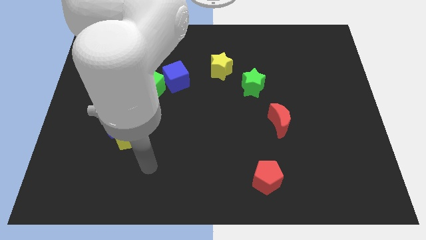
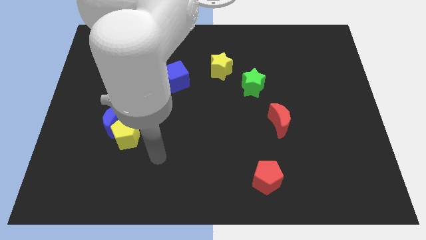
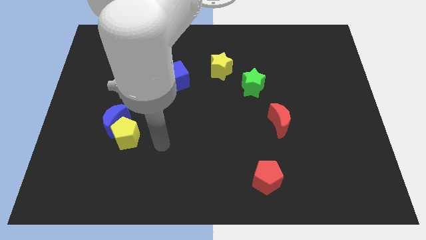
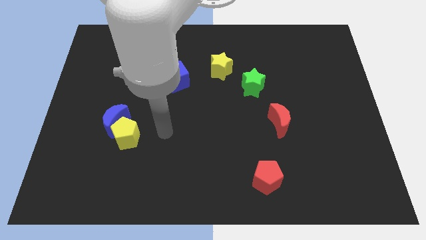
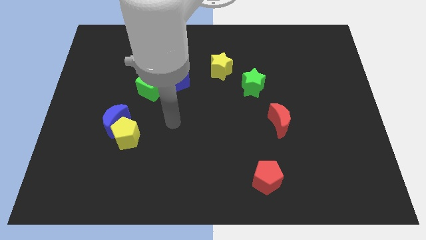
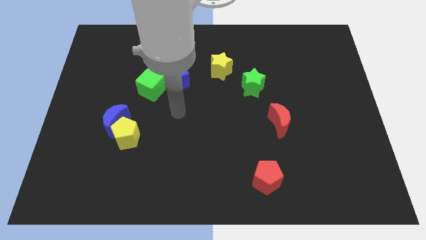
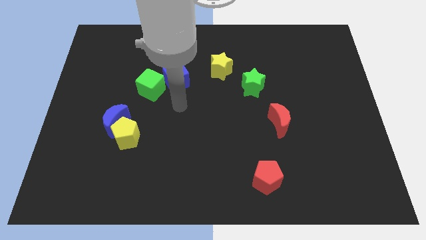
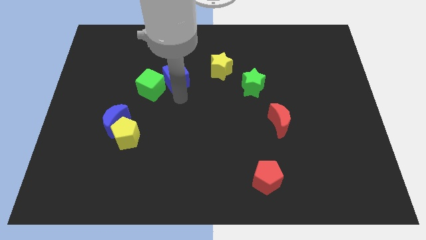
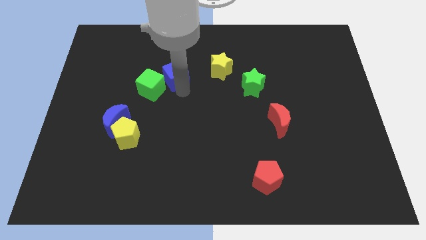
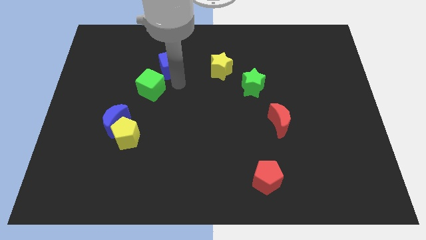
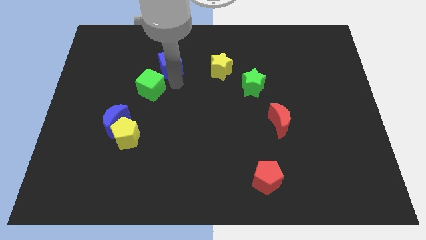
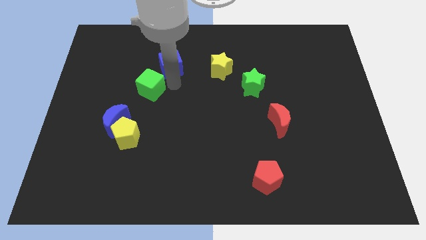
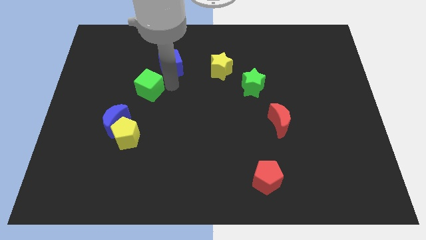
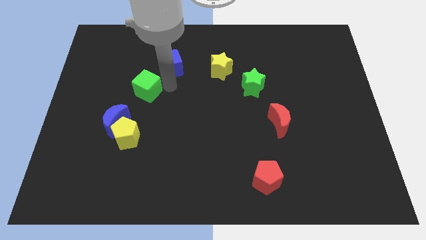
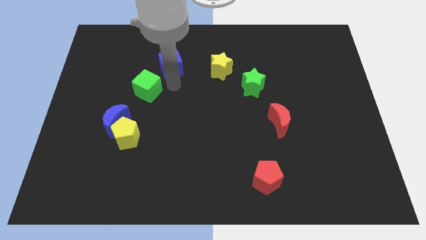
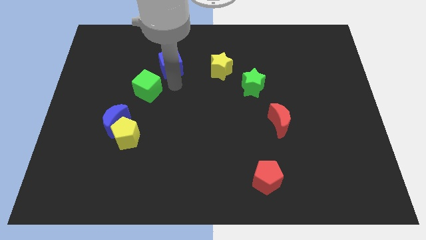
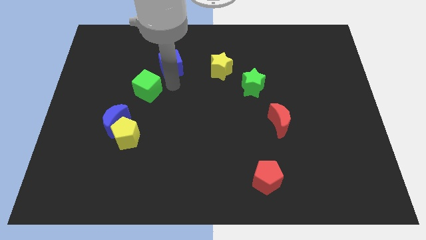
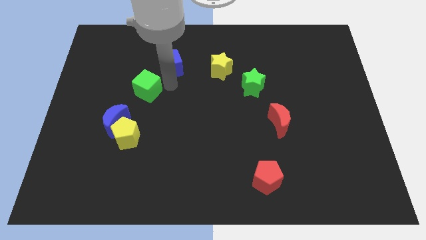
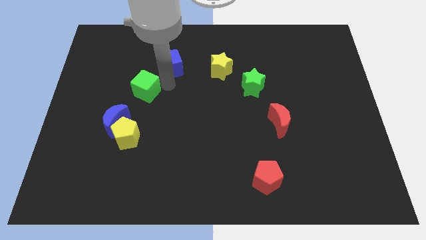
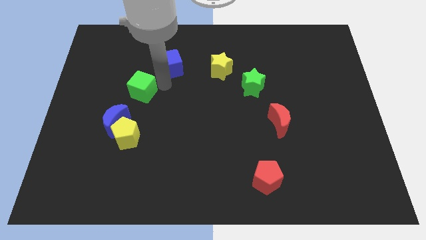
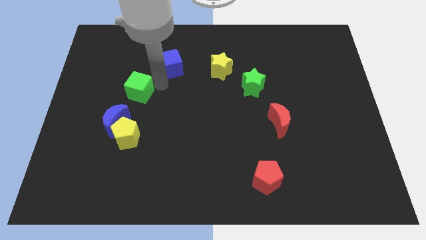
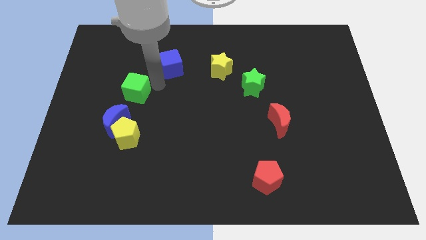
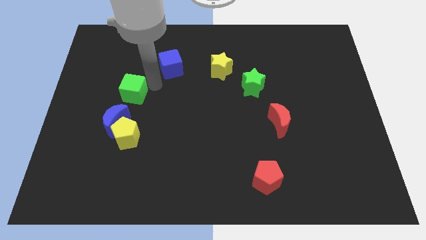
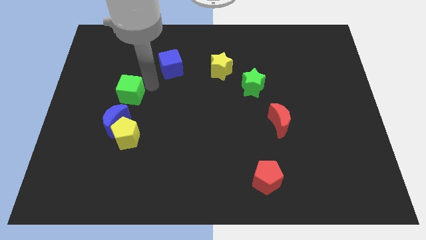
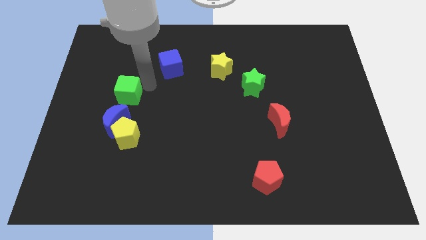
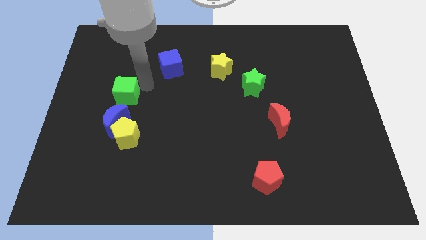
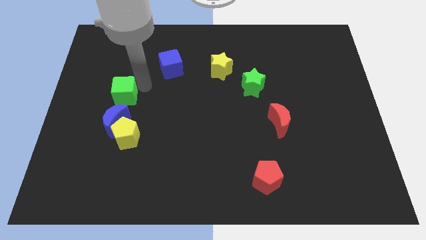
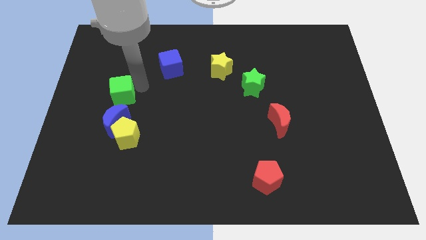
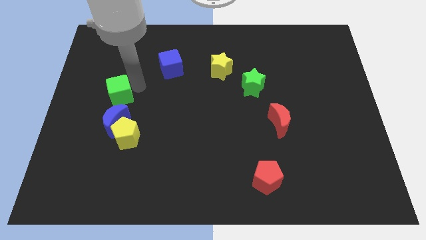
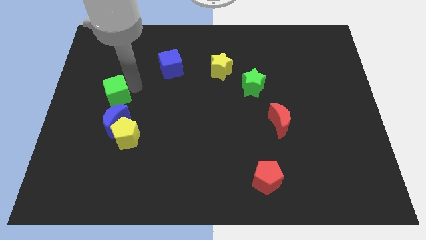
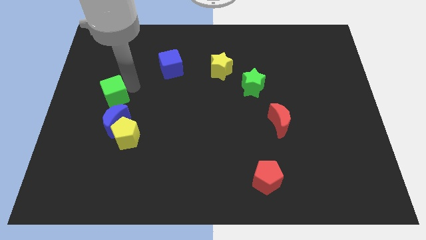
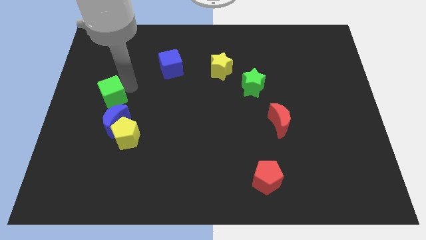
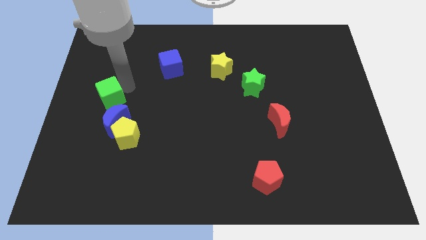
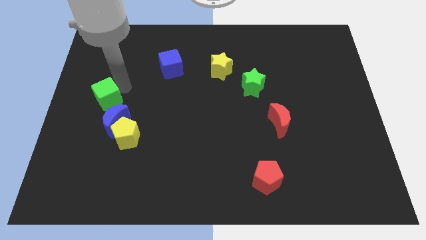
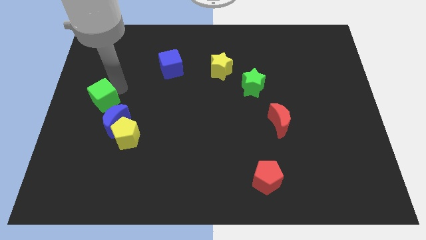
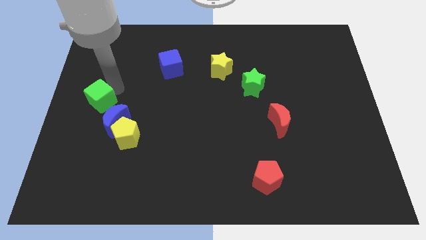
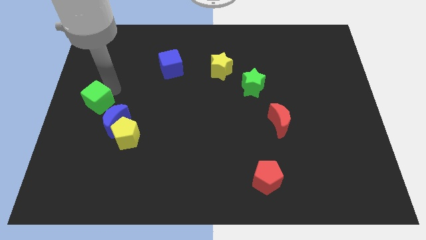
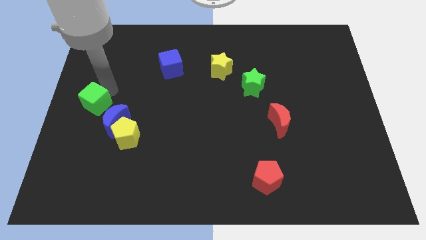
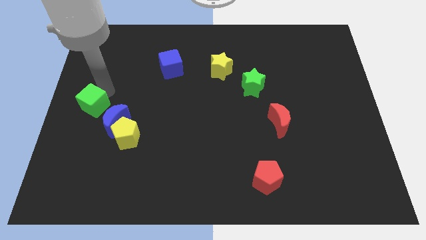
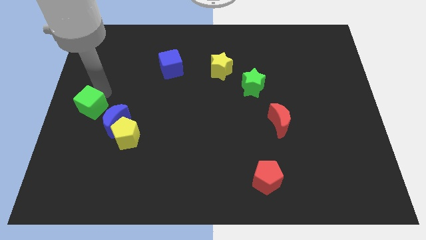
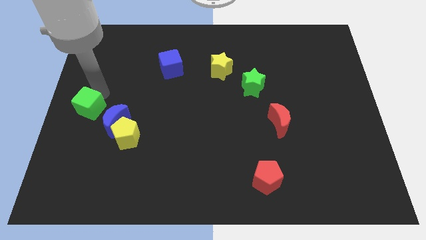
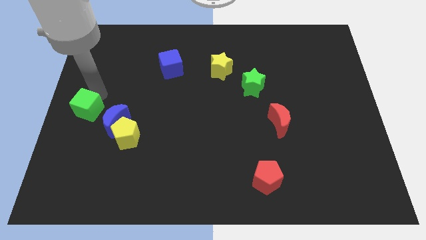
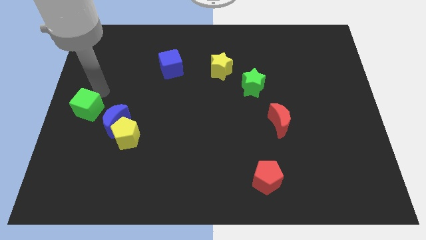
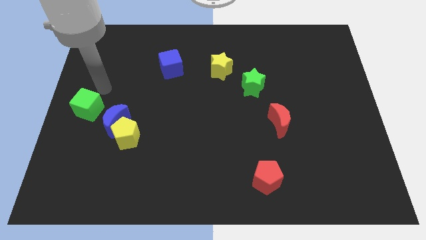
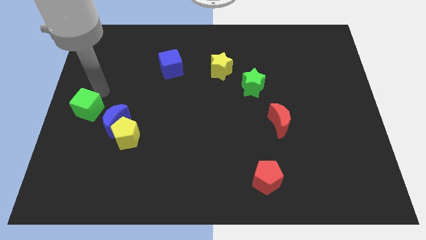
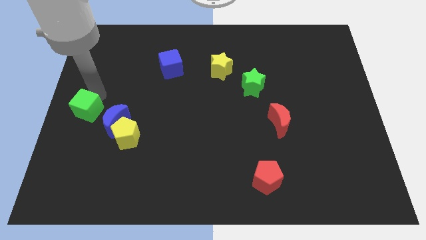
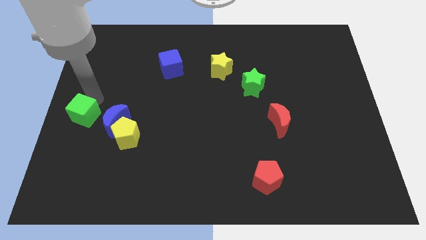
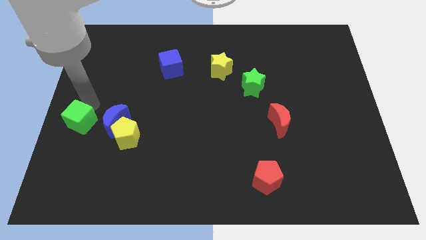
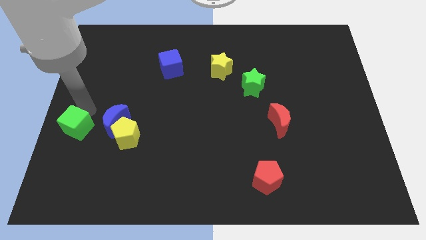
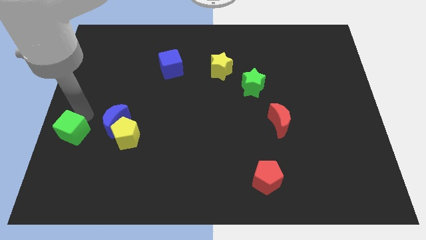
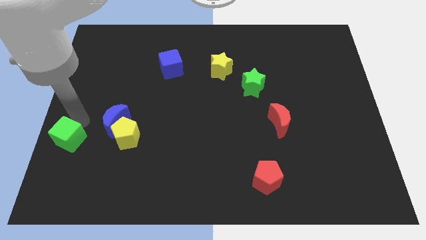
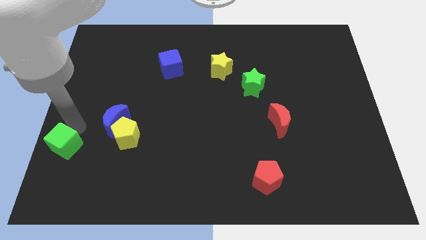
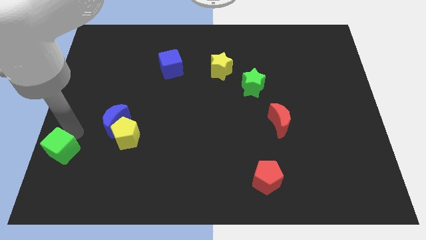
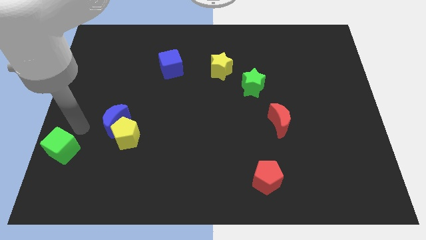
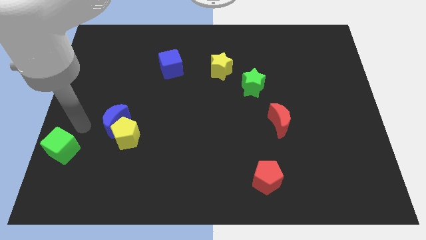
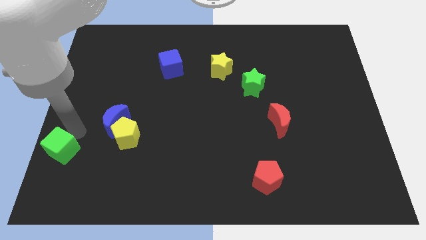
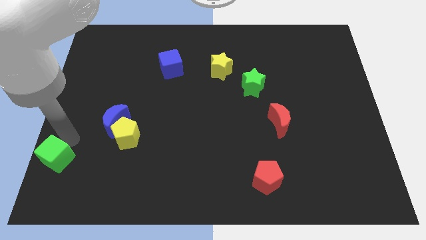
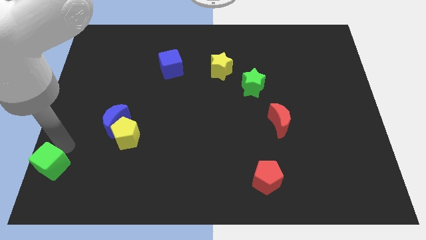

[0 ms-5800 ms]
move the green cube to the lower left corner

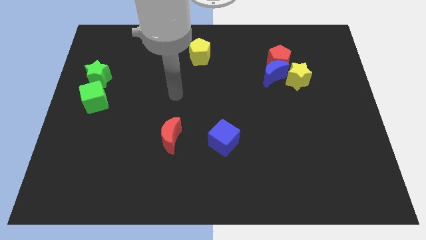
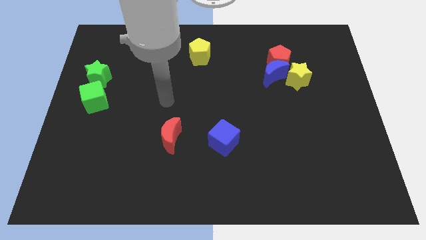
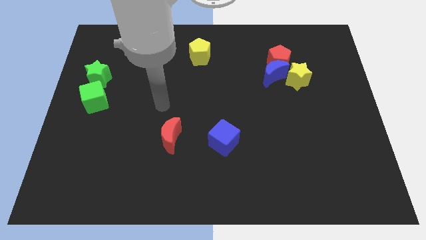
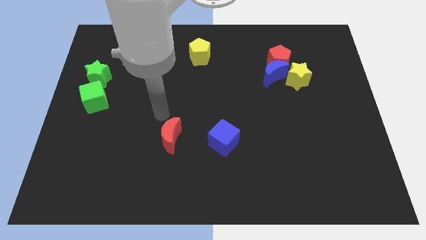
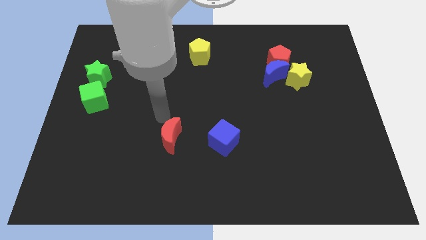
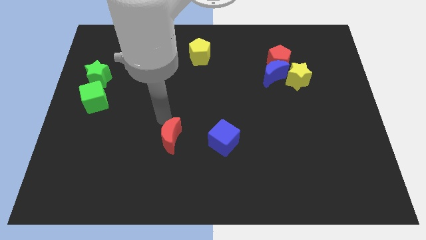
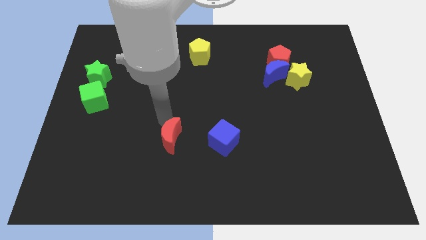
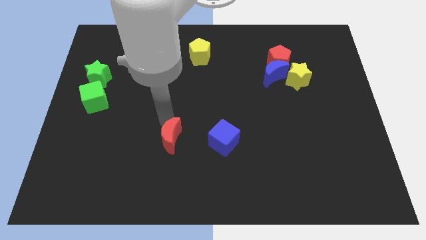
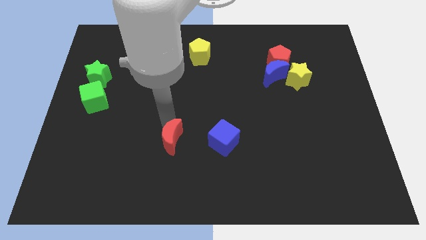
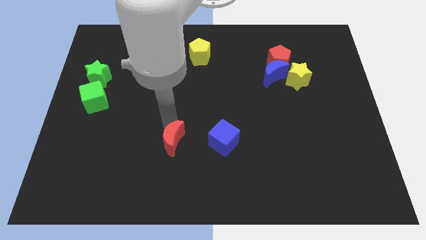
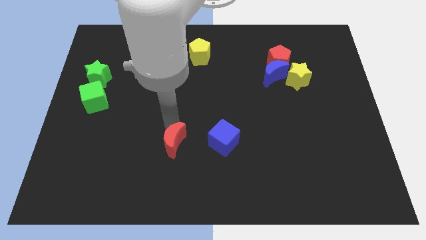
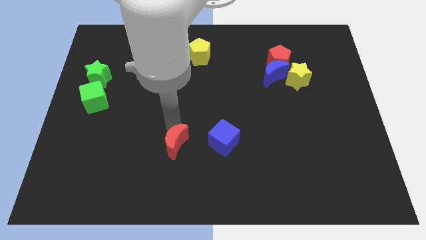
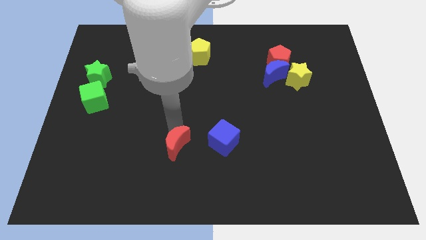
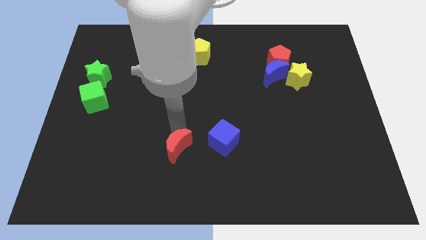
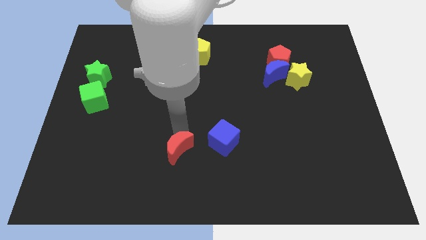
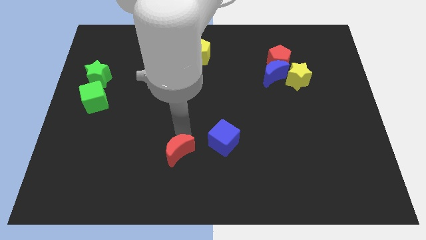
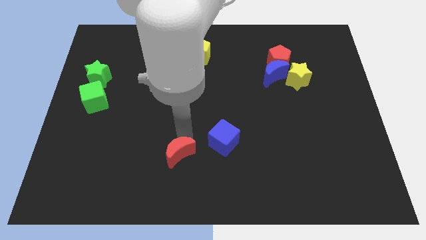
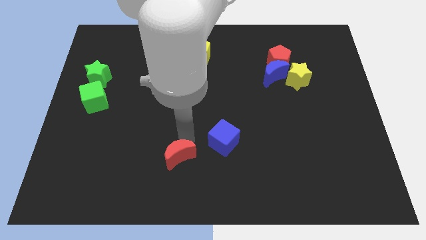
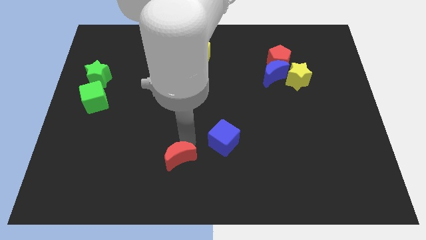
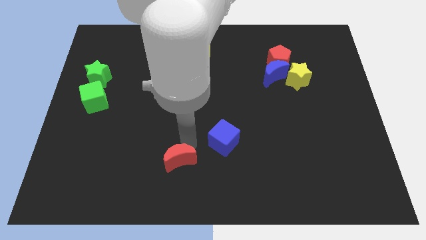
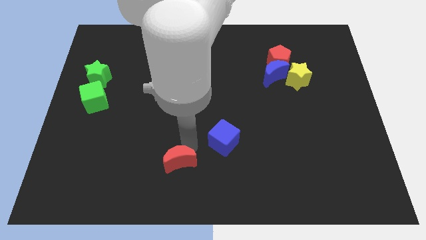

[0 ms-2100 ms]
slide the red moon to the bottom side

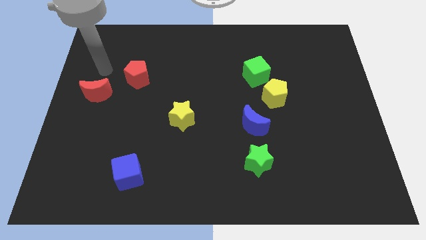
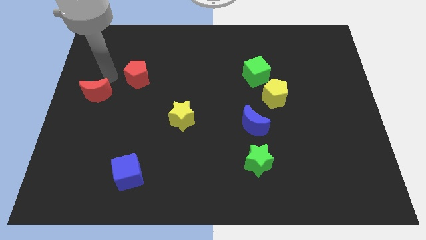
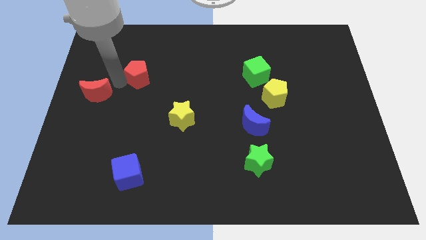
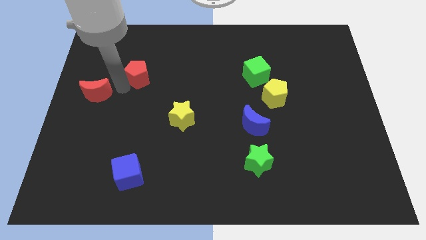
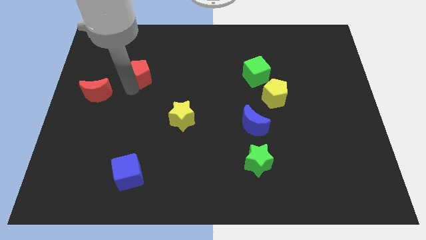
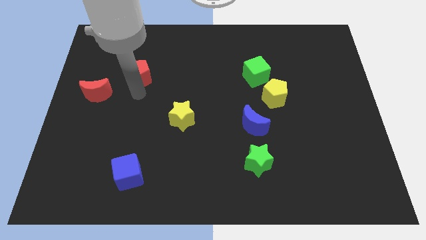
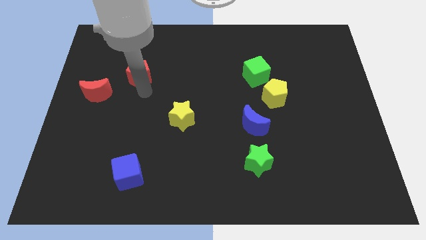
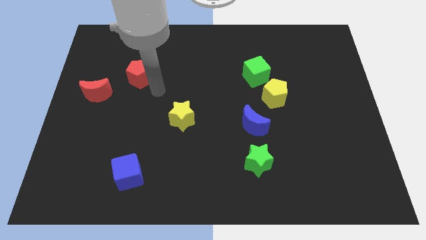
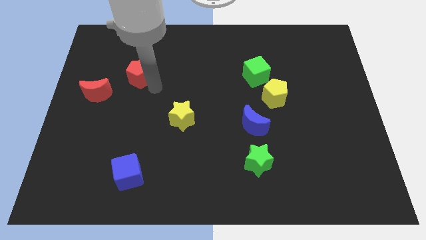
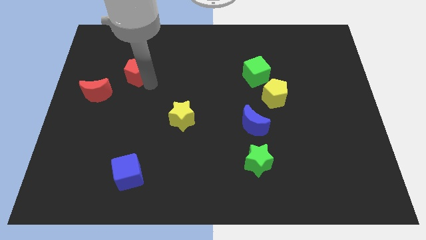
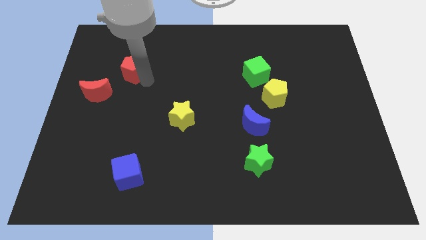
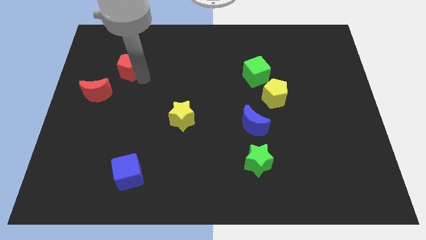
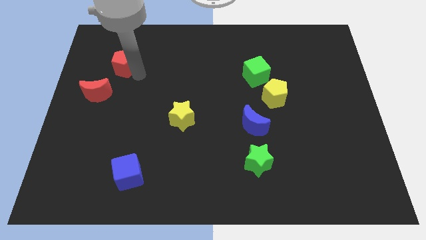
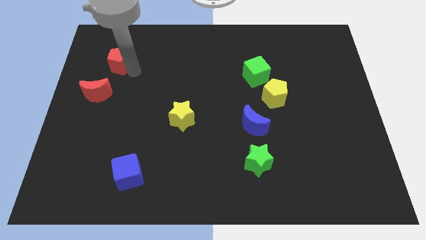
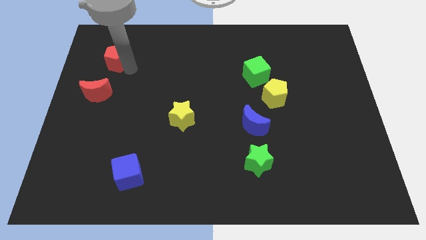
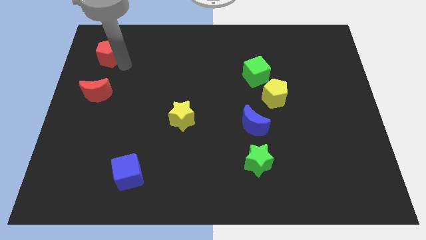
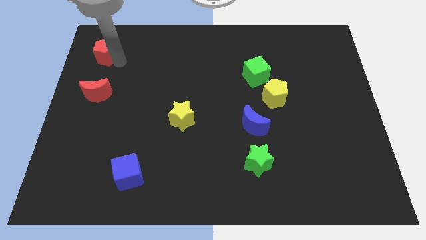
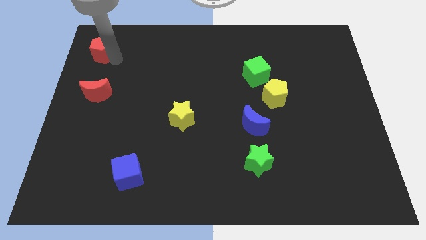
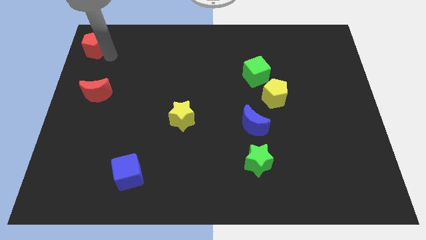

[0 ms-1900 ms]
push the red pentagon to the top left
